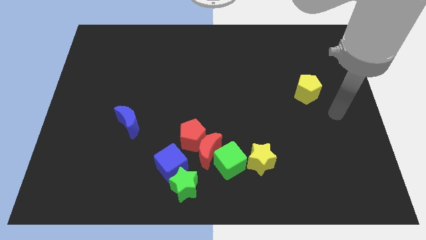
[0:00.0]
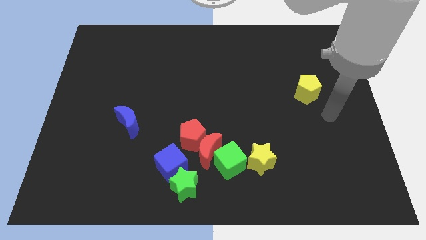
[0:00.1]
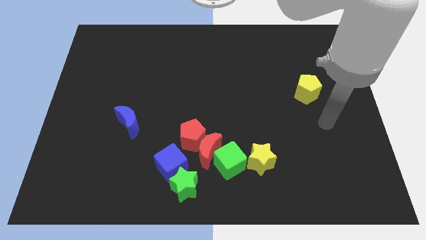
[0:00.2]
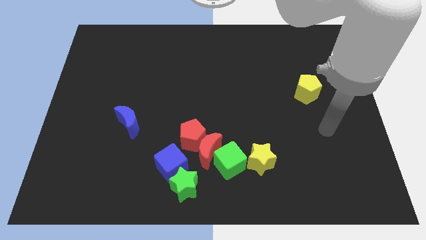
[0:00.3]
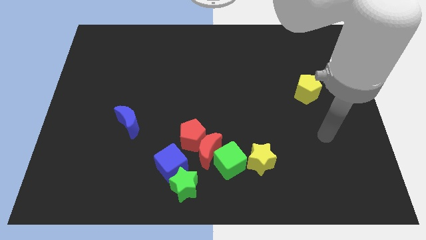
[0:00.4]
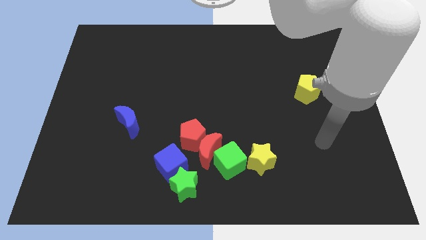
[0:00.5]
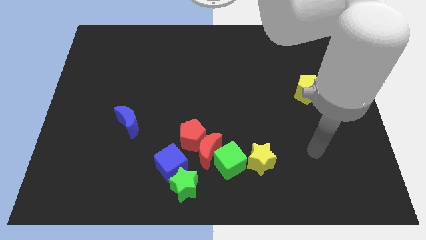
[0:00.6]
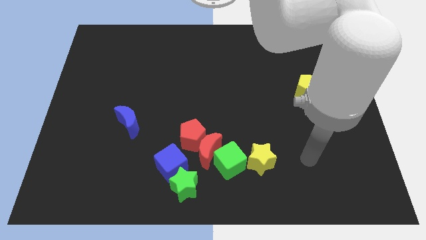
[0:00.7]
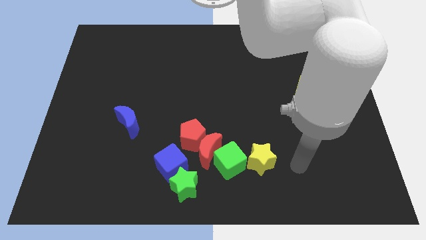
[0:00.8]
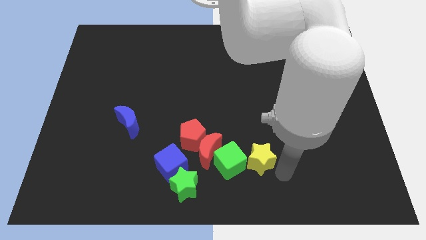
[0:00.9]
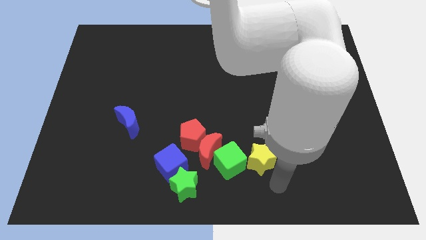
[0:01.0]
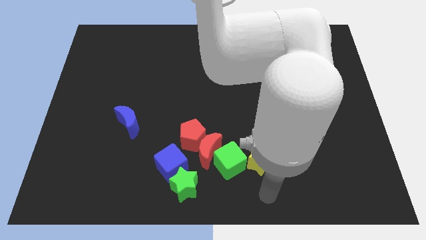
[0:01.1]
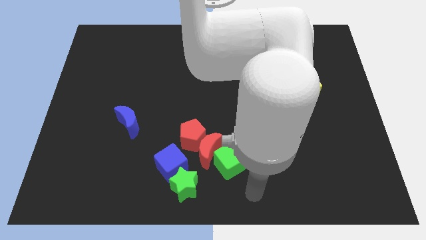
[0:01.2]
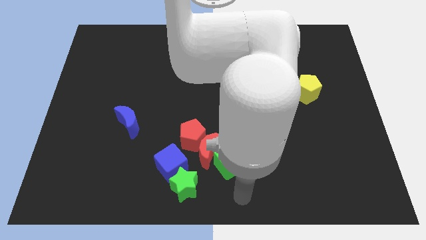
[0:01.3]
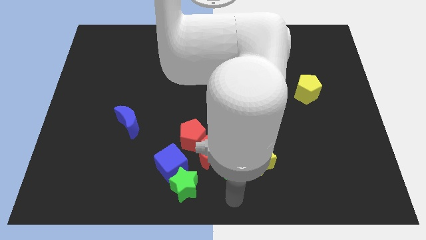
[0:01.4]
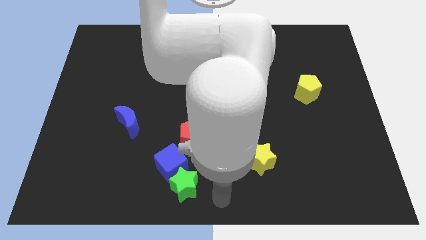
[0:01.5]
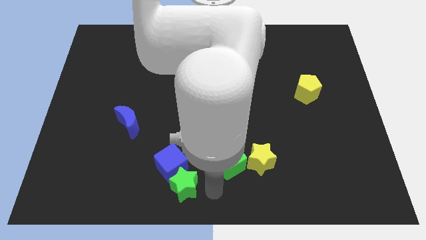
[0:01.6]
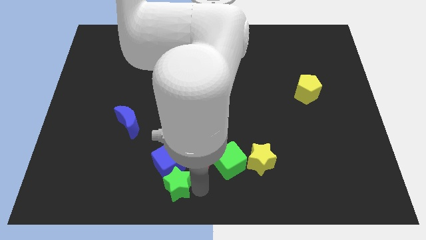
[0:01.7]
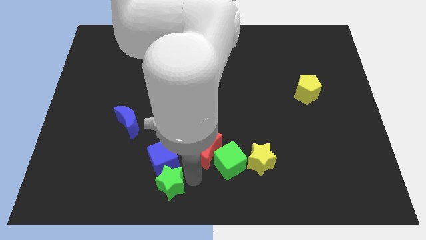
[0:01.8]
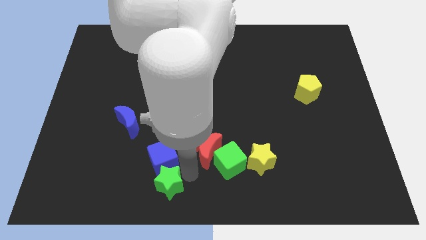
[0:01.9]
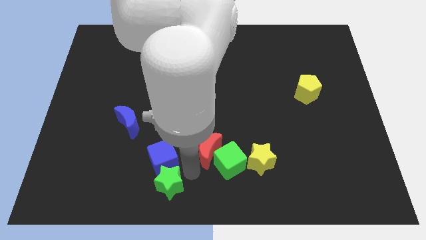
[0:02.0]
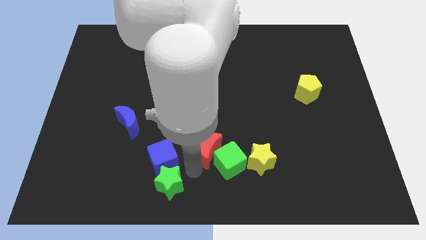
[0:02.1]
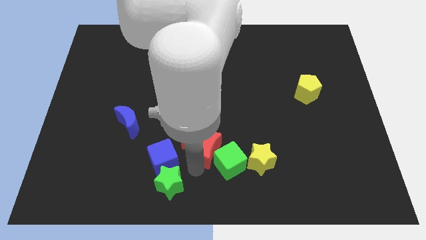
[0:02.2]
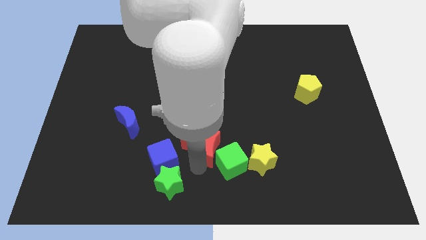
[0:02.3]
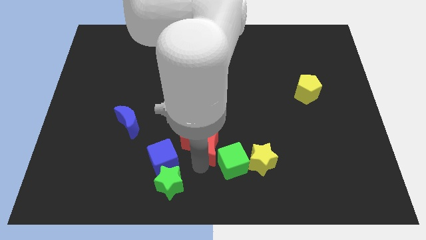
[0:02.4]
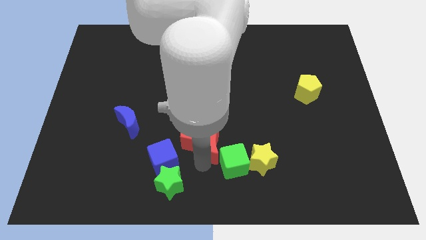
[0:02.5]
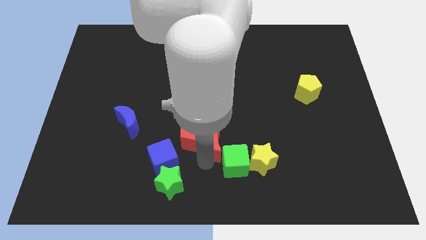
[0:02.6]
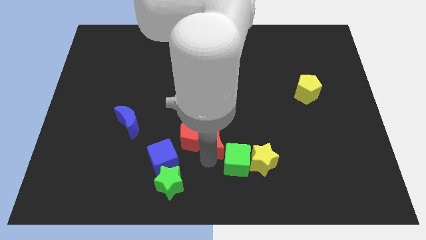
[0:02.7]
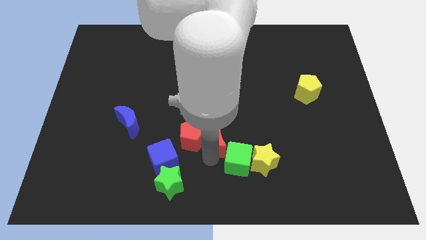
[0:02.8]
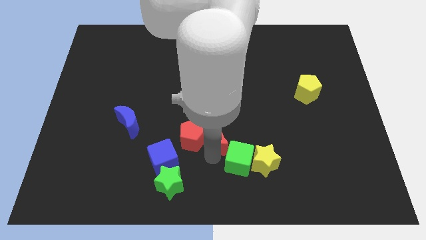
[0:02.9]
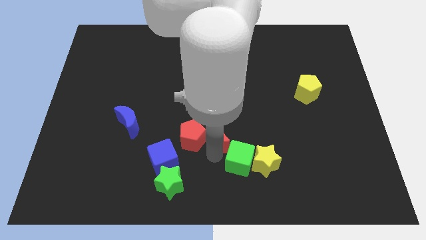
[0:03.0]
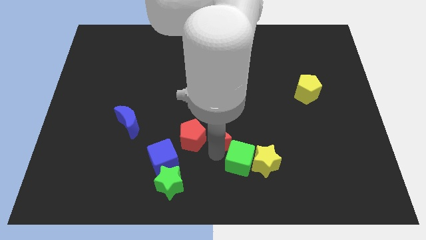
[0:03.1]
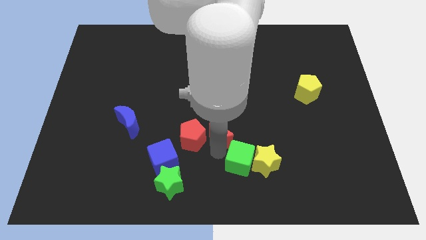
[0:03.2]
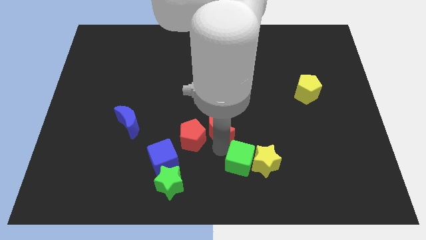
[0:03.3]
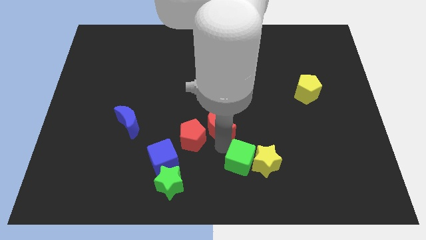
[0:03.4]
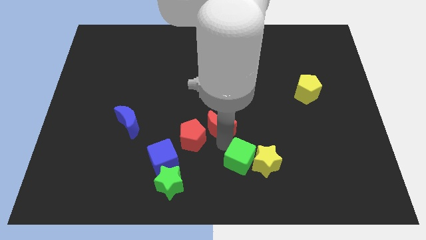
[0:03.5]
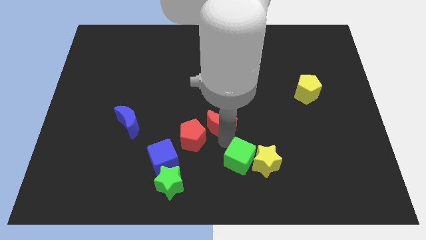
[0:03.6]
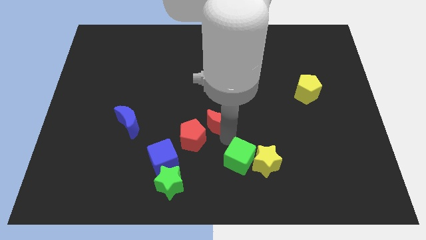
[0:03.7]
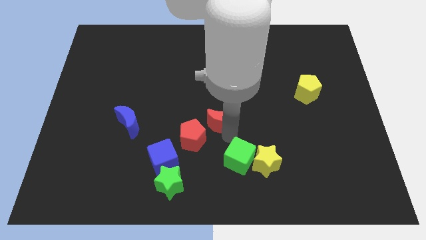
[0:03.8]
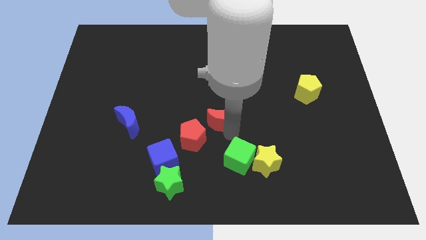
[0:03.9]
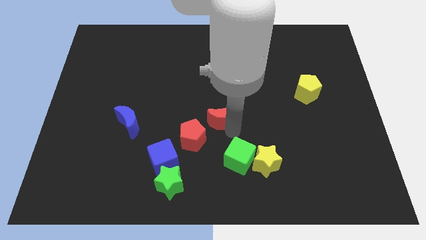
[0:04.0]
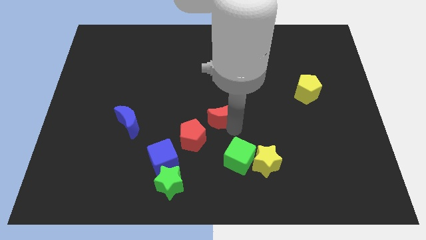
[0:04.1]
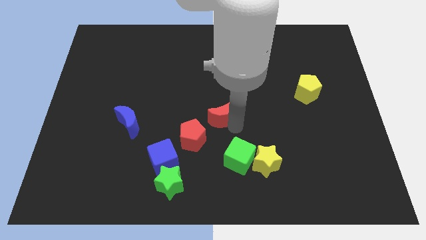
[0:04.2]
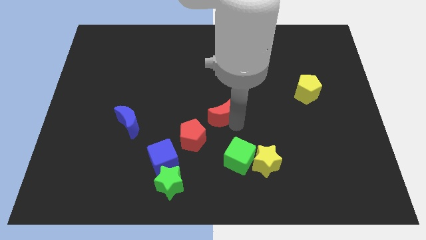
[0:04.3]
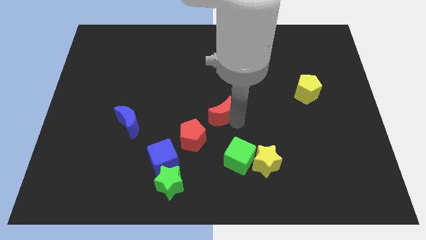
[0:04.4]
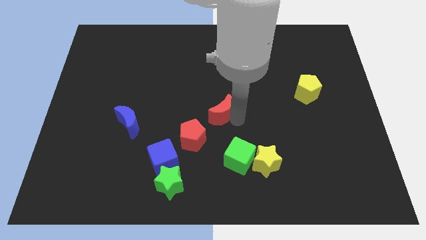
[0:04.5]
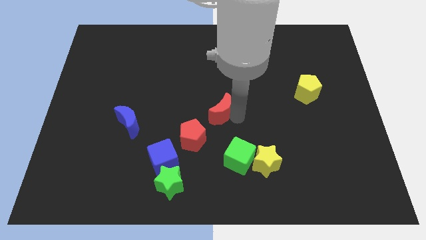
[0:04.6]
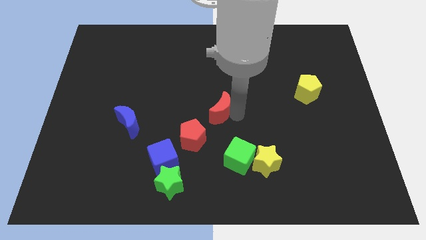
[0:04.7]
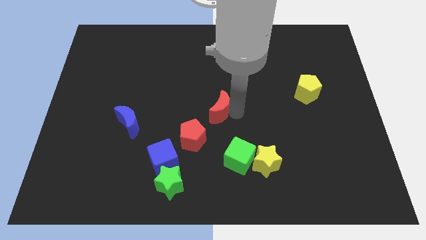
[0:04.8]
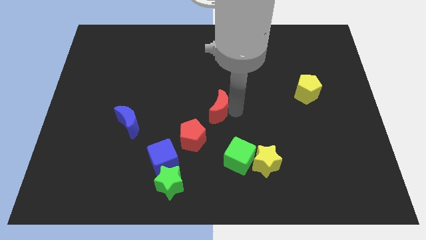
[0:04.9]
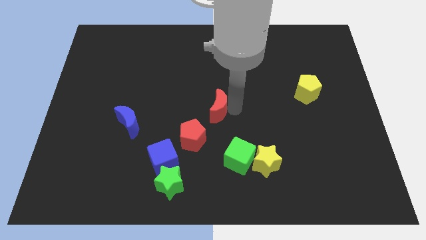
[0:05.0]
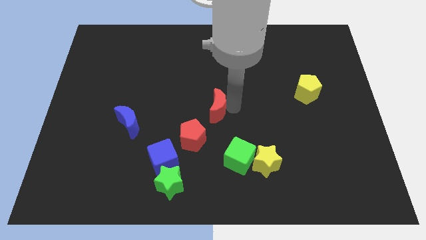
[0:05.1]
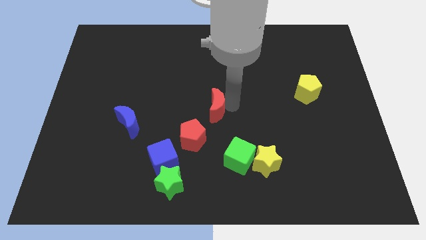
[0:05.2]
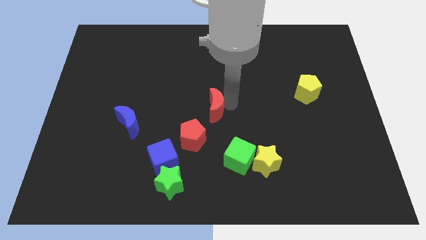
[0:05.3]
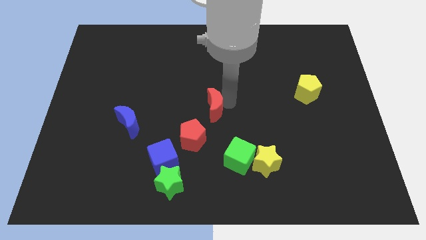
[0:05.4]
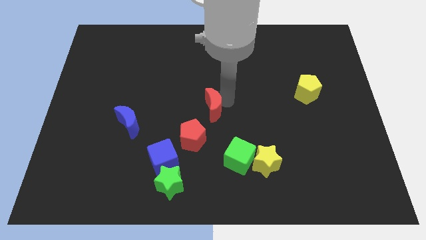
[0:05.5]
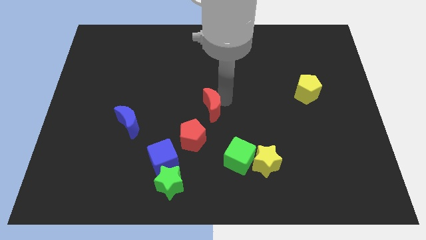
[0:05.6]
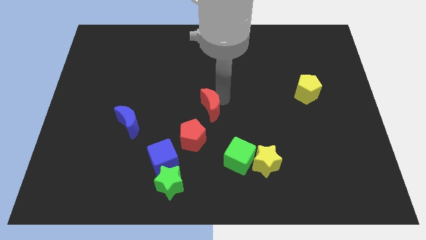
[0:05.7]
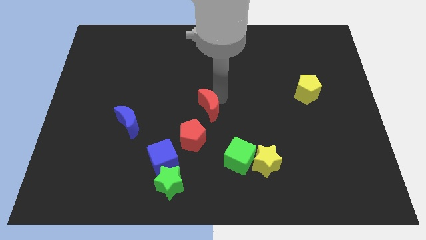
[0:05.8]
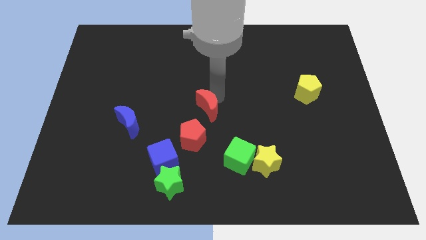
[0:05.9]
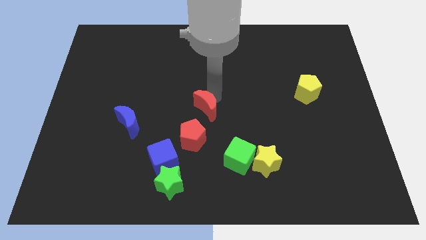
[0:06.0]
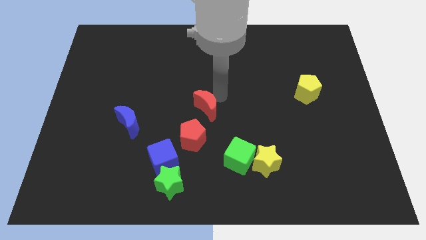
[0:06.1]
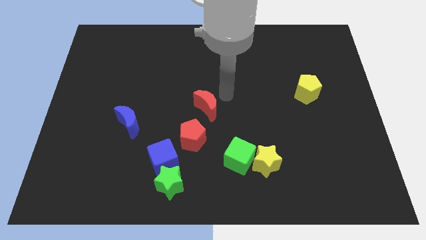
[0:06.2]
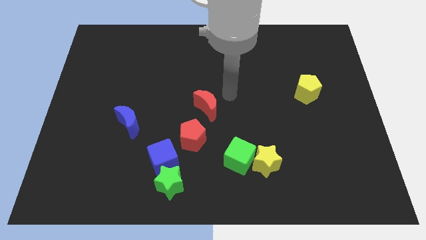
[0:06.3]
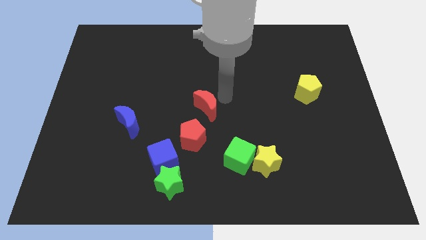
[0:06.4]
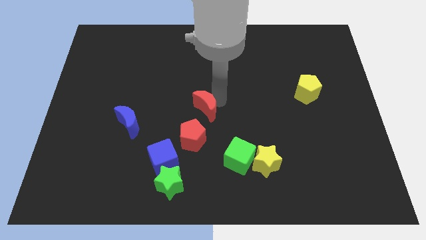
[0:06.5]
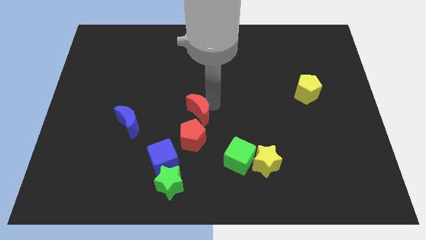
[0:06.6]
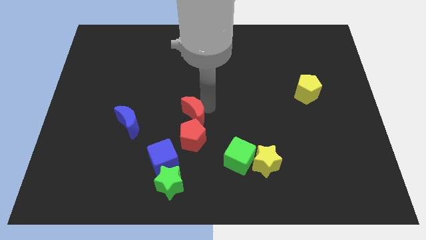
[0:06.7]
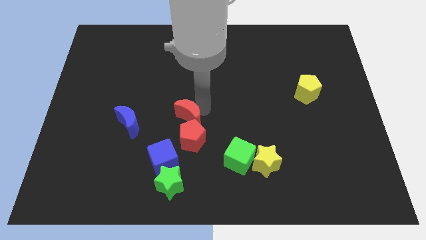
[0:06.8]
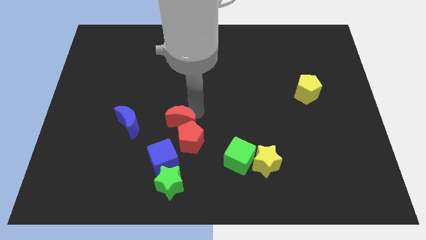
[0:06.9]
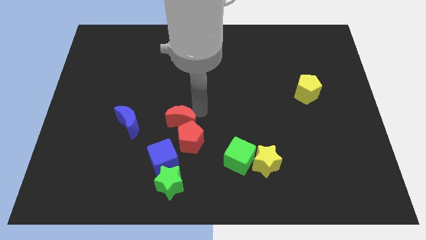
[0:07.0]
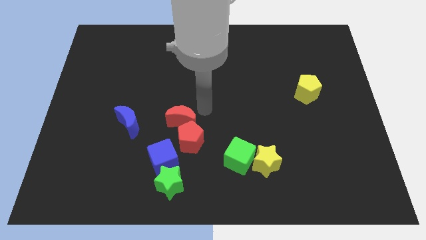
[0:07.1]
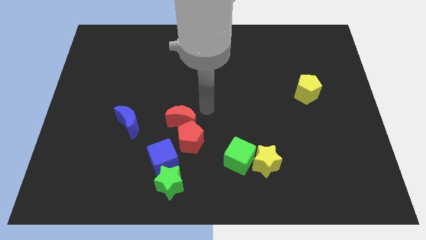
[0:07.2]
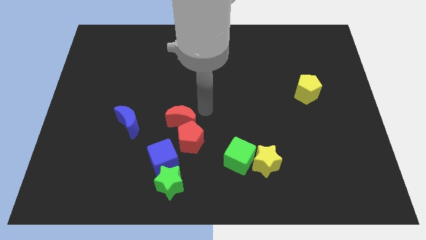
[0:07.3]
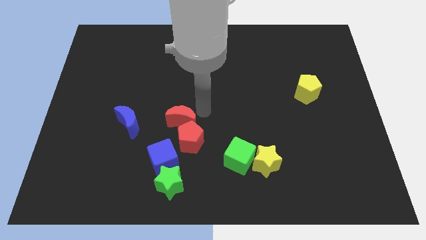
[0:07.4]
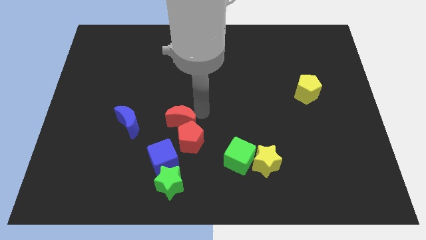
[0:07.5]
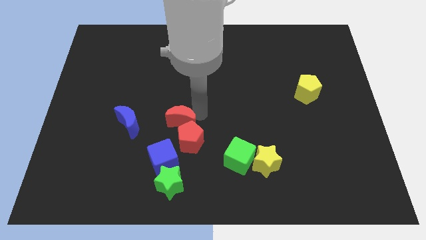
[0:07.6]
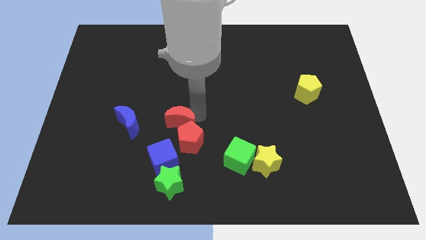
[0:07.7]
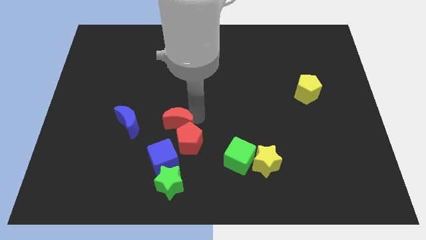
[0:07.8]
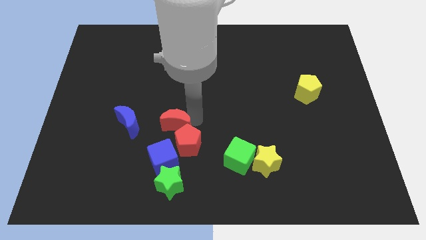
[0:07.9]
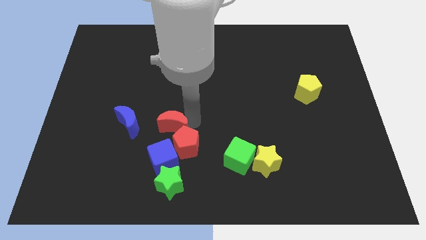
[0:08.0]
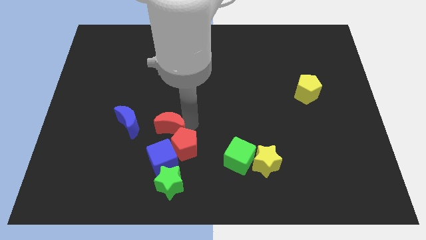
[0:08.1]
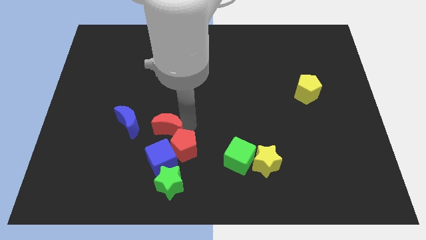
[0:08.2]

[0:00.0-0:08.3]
slightly slide the red moon left
